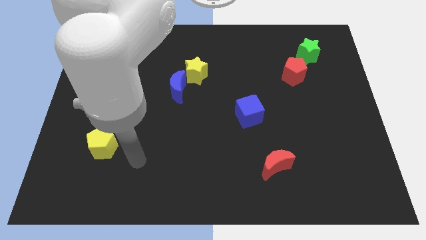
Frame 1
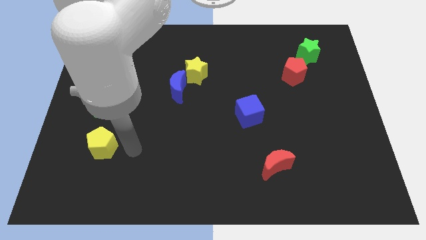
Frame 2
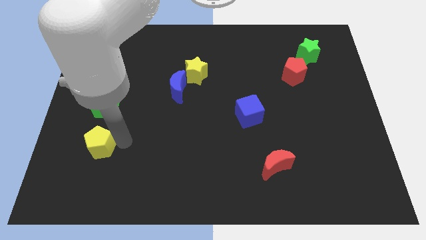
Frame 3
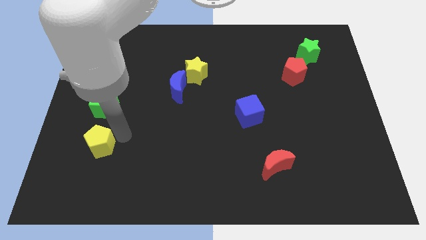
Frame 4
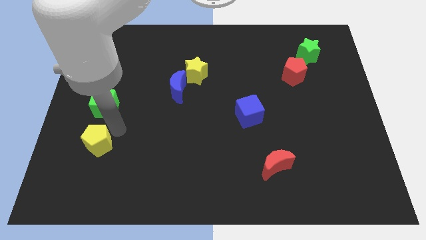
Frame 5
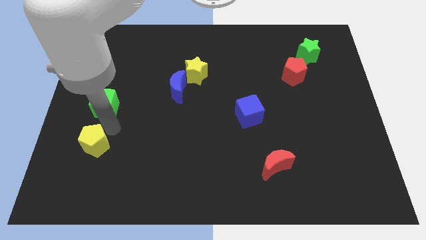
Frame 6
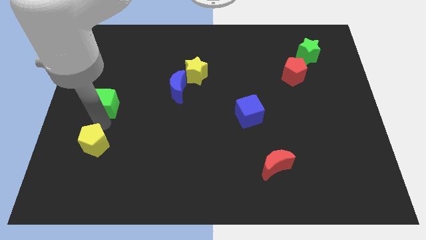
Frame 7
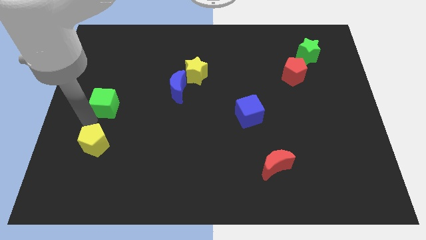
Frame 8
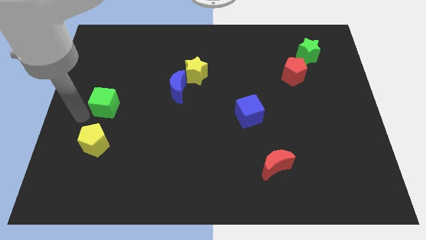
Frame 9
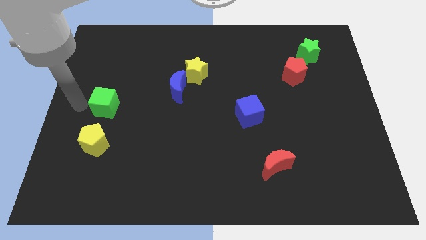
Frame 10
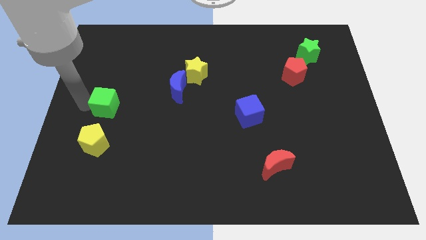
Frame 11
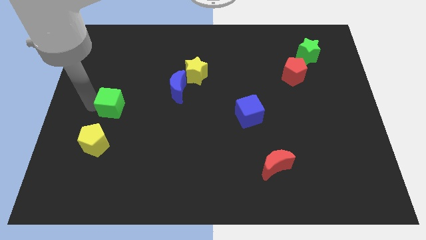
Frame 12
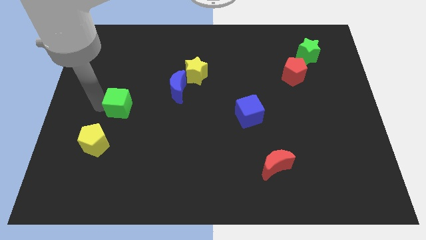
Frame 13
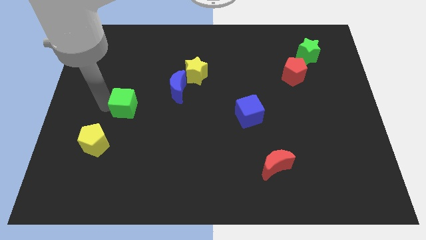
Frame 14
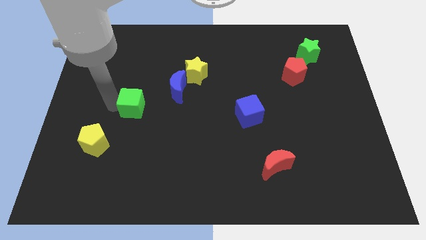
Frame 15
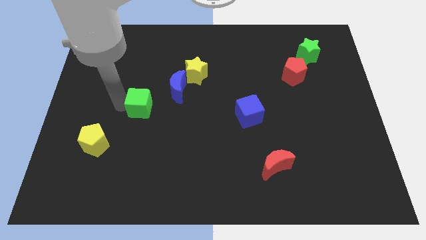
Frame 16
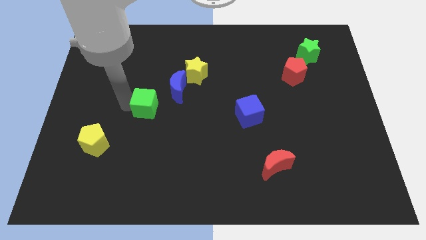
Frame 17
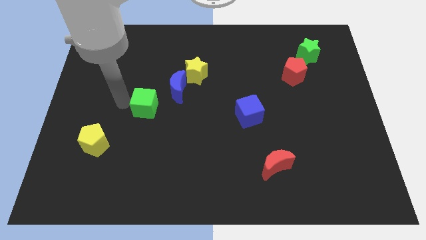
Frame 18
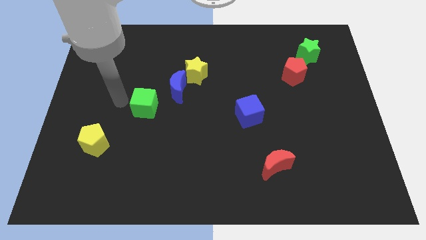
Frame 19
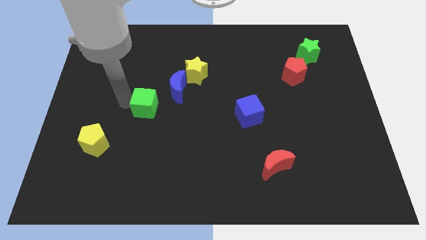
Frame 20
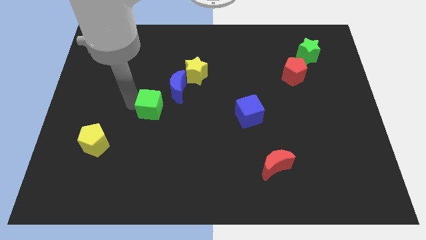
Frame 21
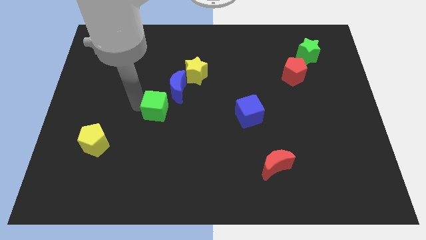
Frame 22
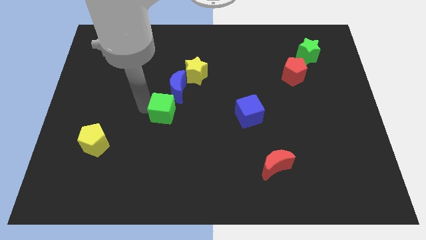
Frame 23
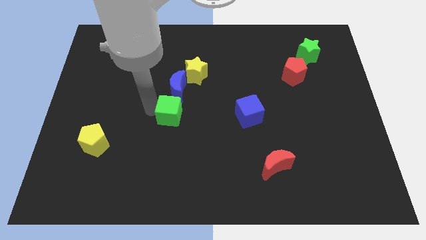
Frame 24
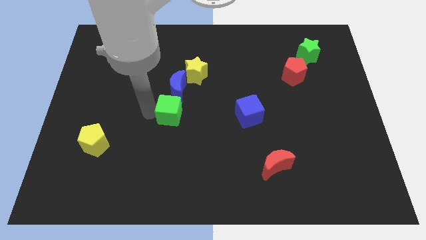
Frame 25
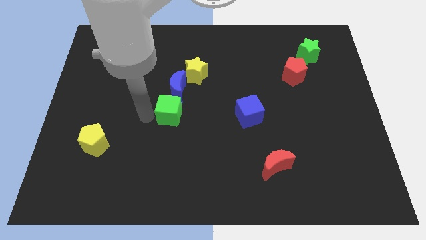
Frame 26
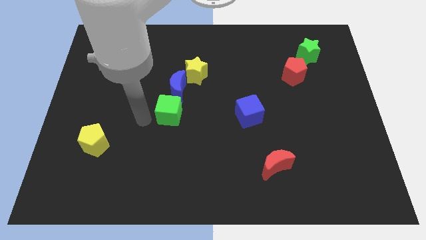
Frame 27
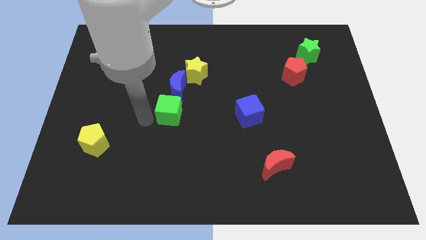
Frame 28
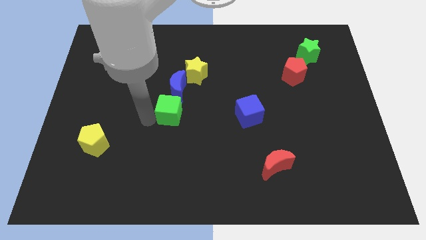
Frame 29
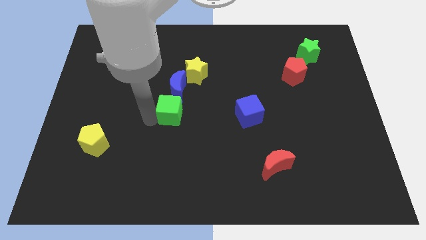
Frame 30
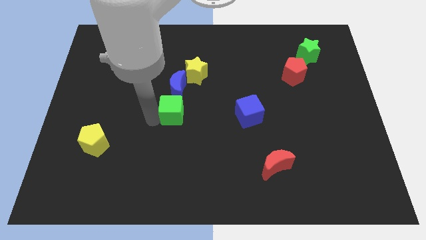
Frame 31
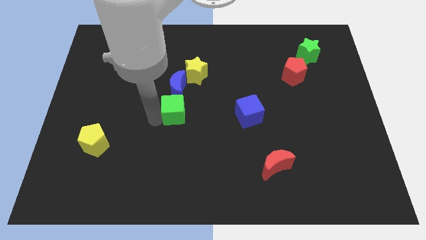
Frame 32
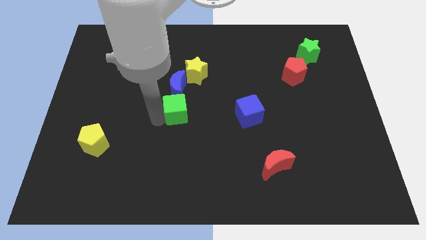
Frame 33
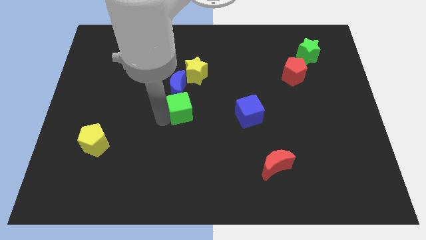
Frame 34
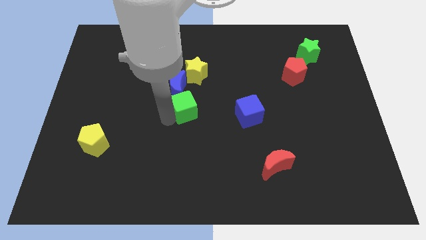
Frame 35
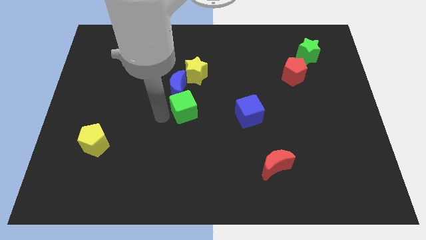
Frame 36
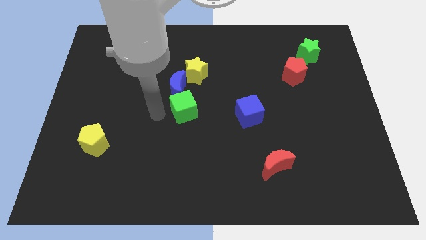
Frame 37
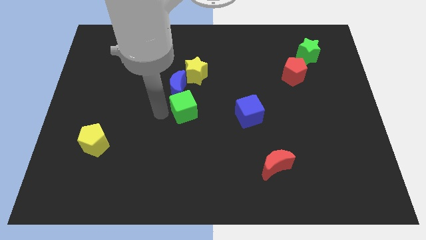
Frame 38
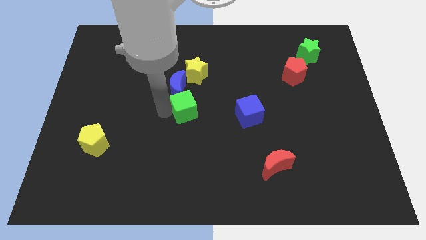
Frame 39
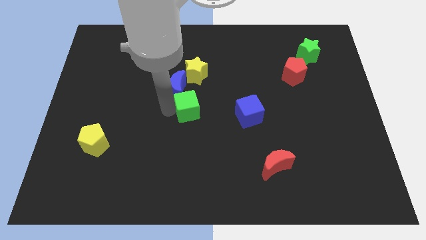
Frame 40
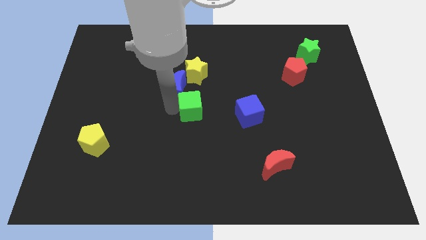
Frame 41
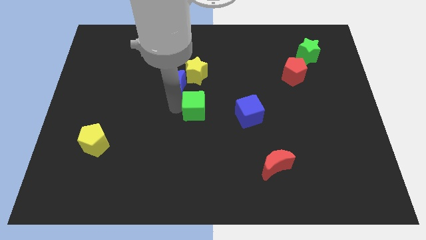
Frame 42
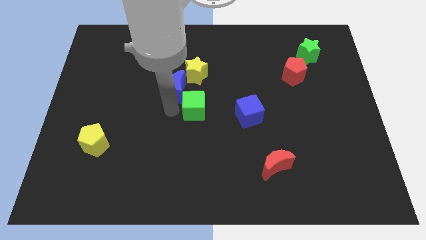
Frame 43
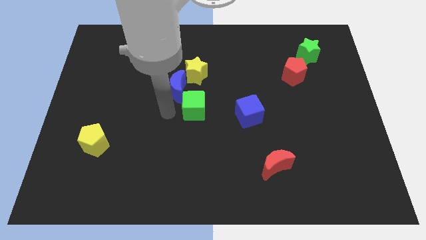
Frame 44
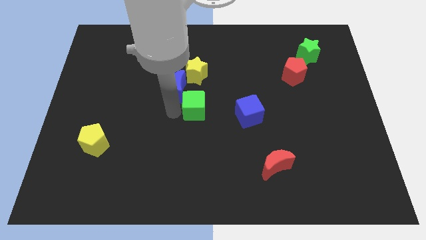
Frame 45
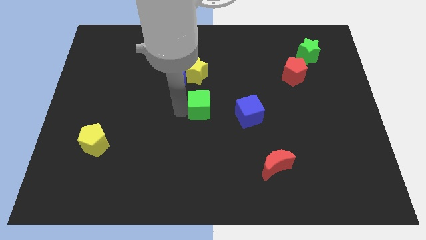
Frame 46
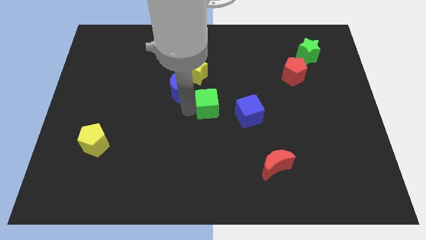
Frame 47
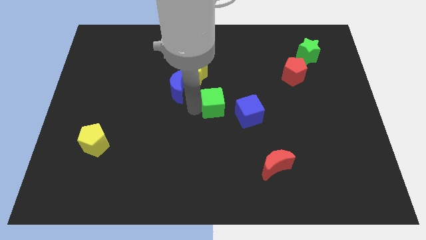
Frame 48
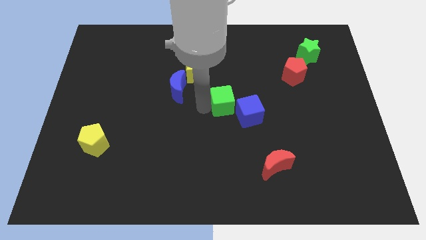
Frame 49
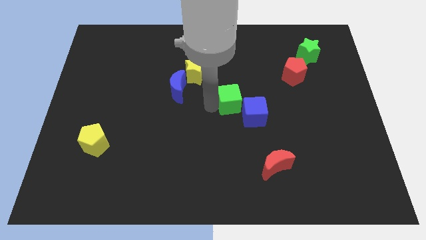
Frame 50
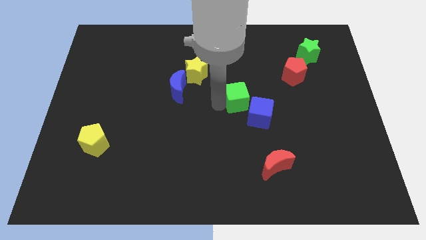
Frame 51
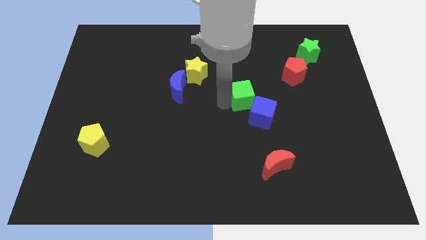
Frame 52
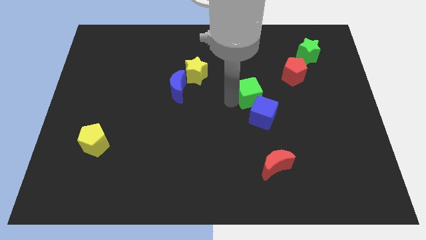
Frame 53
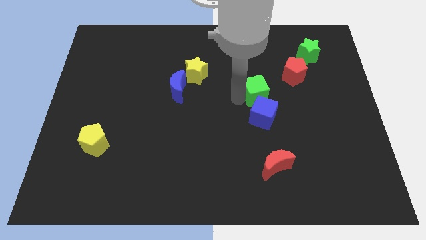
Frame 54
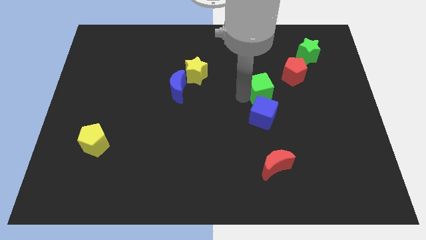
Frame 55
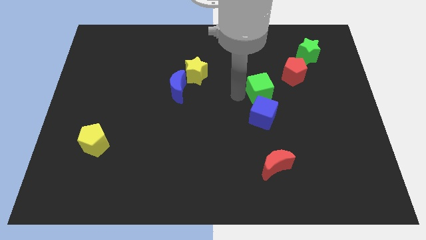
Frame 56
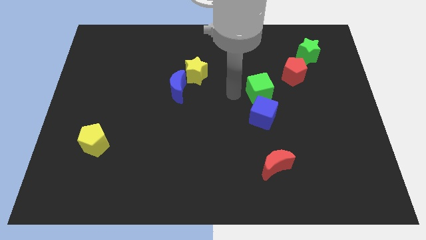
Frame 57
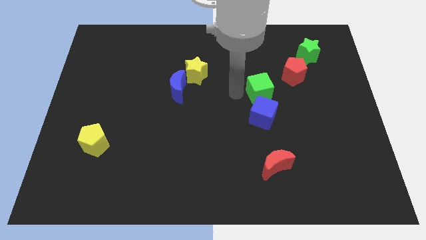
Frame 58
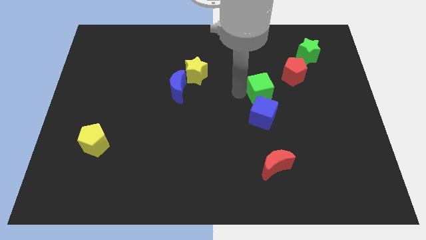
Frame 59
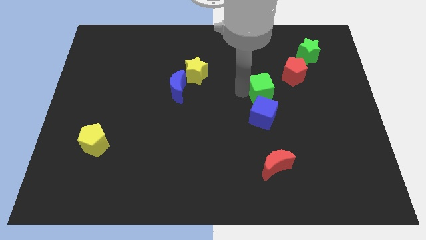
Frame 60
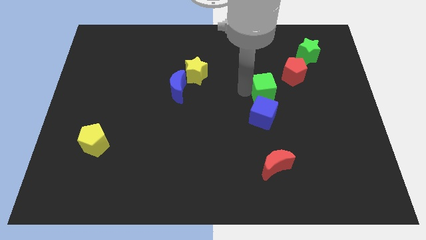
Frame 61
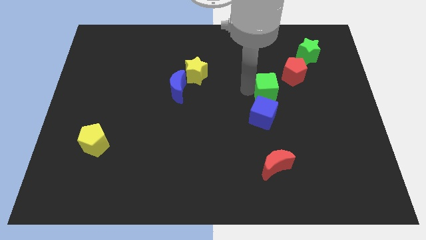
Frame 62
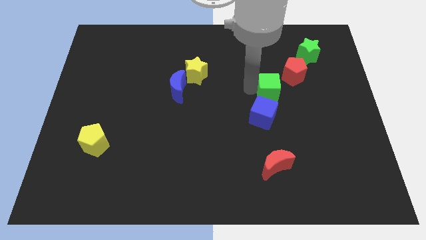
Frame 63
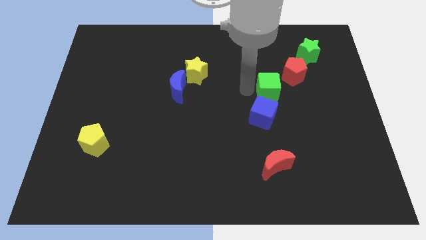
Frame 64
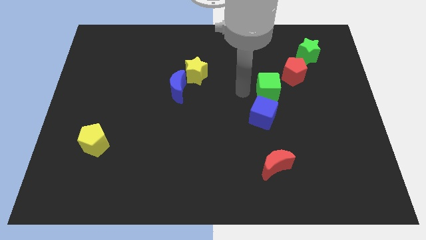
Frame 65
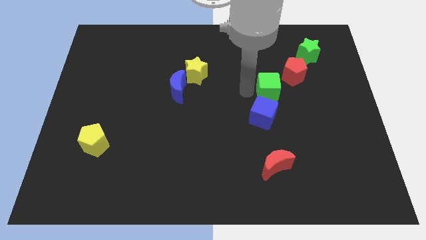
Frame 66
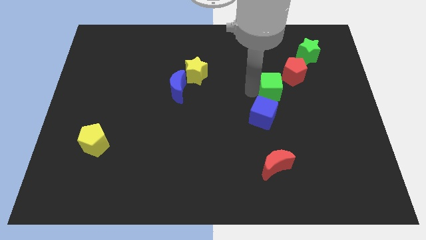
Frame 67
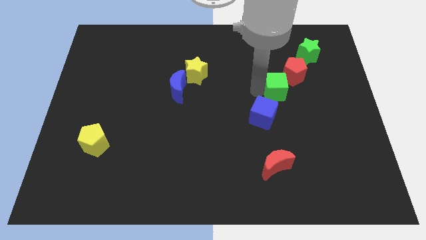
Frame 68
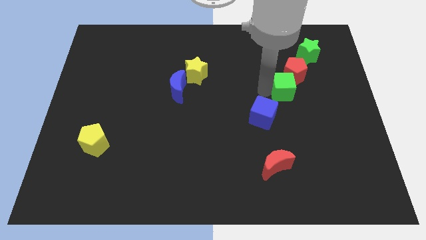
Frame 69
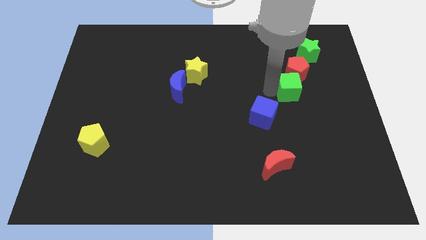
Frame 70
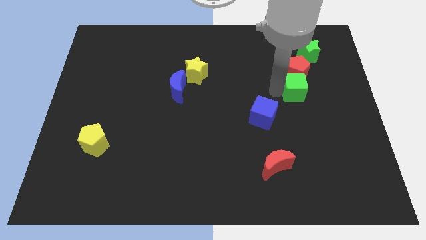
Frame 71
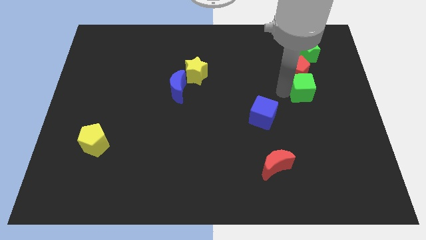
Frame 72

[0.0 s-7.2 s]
move the green cube to the bottom side of the green star
